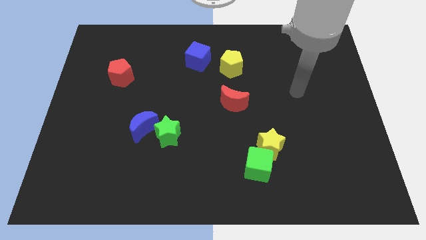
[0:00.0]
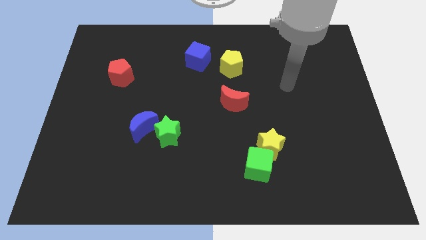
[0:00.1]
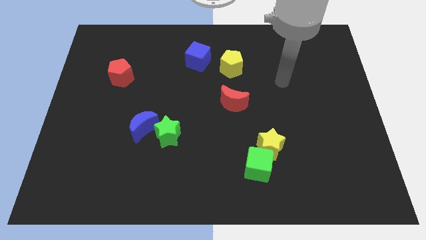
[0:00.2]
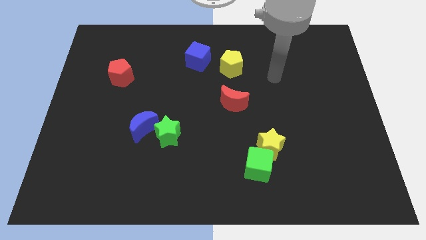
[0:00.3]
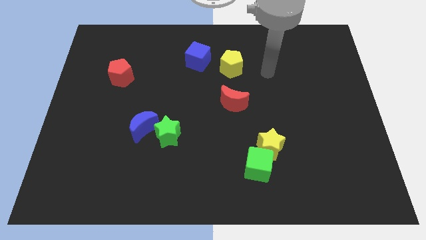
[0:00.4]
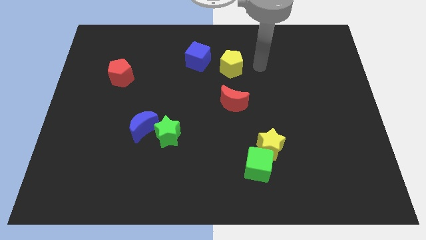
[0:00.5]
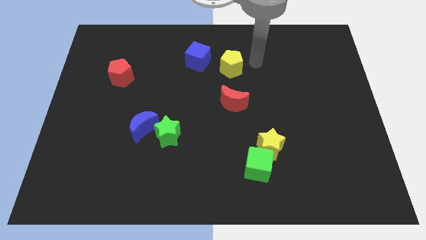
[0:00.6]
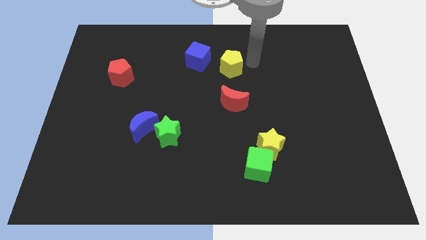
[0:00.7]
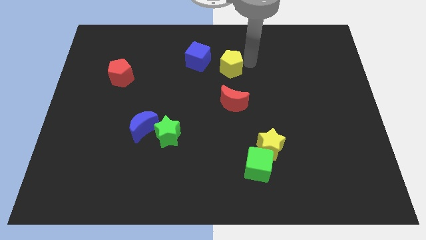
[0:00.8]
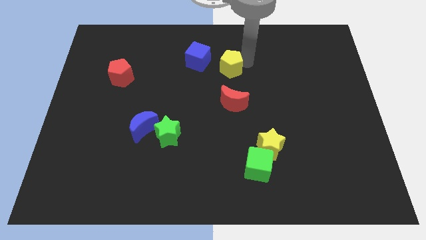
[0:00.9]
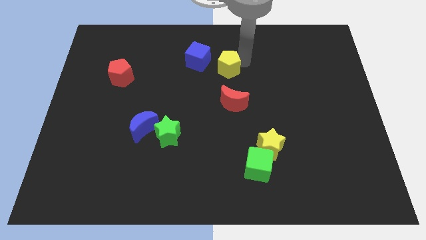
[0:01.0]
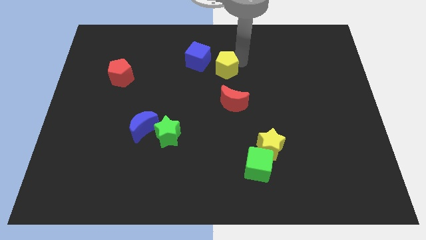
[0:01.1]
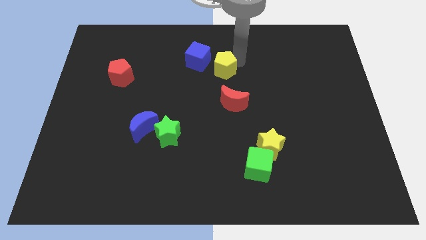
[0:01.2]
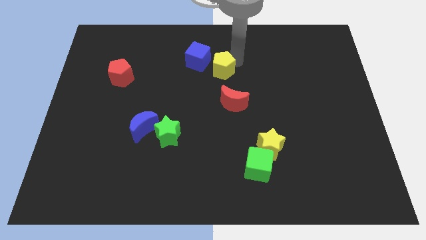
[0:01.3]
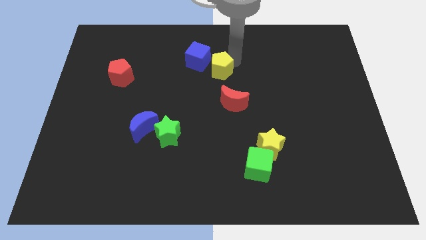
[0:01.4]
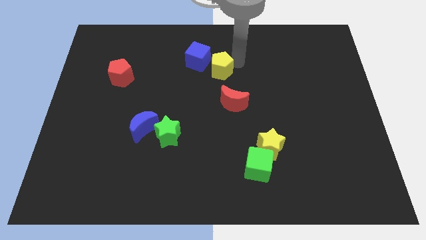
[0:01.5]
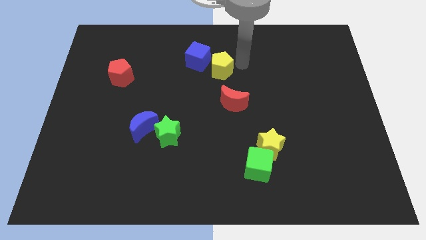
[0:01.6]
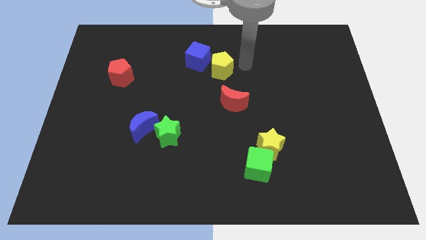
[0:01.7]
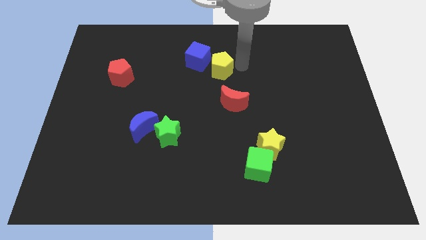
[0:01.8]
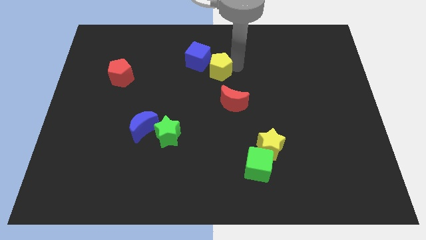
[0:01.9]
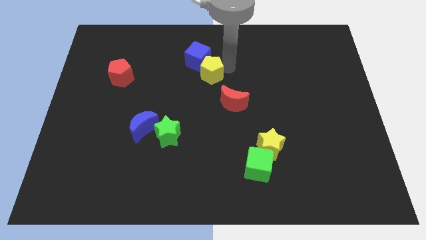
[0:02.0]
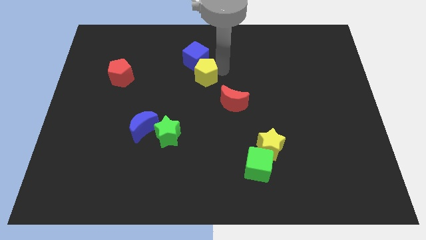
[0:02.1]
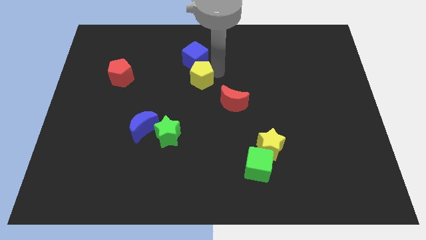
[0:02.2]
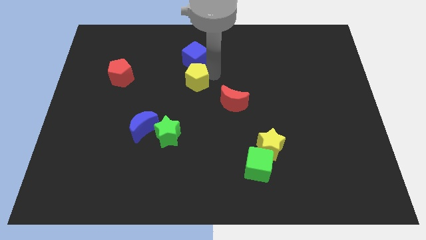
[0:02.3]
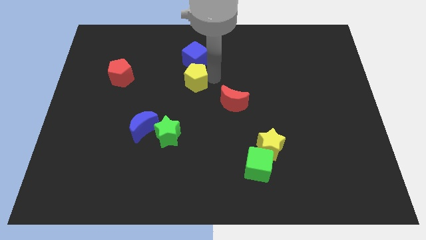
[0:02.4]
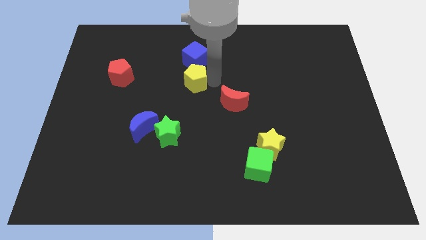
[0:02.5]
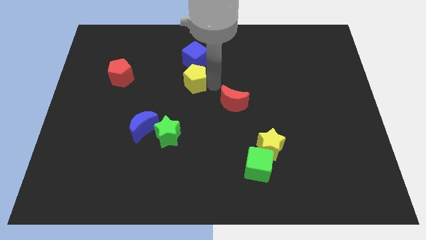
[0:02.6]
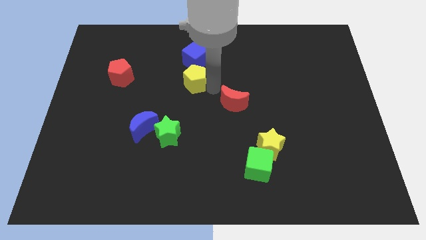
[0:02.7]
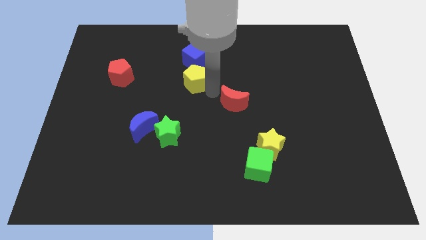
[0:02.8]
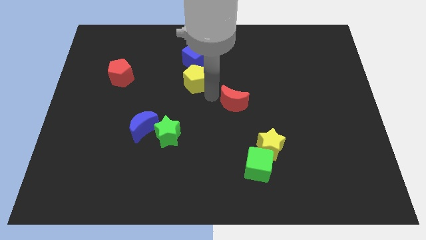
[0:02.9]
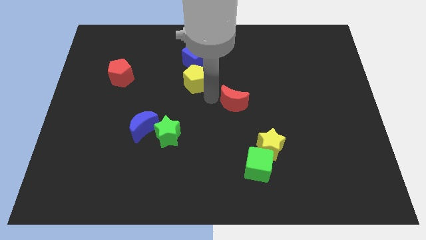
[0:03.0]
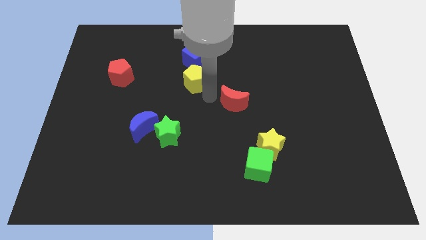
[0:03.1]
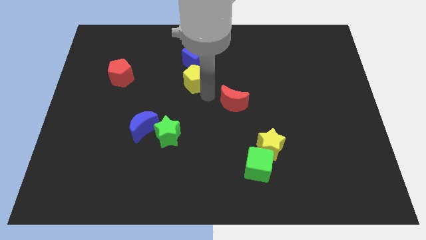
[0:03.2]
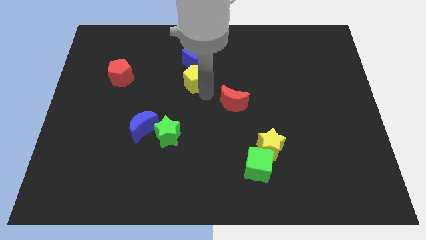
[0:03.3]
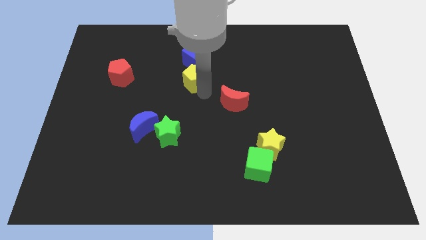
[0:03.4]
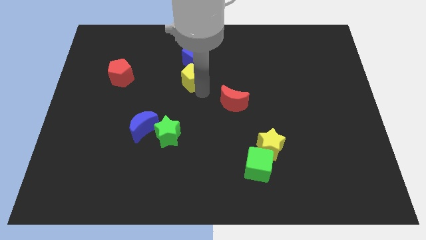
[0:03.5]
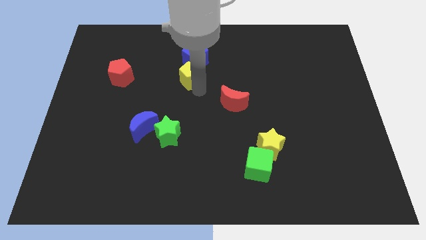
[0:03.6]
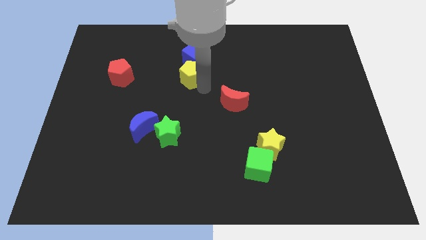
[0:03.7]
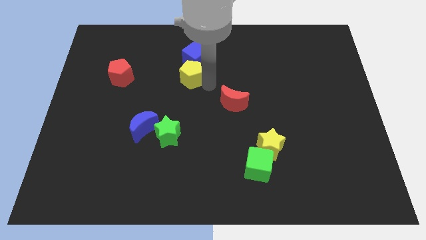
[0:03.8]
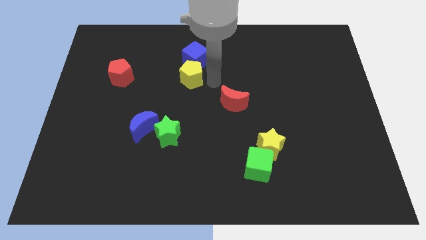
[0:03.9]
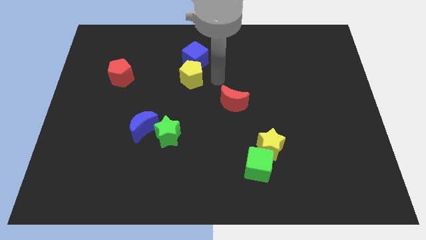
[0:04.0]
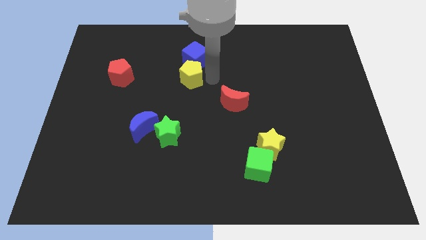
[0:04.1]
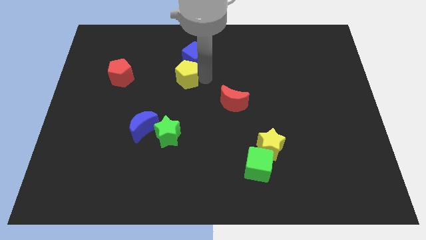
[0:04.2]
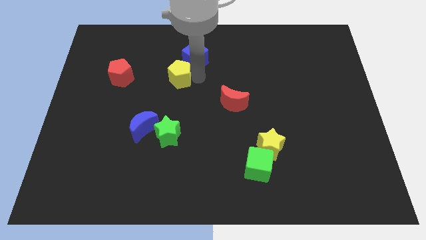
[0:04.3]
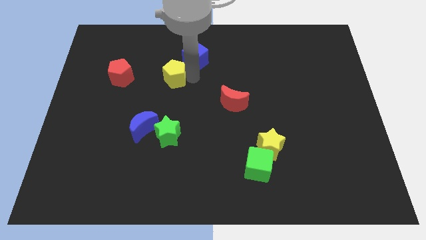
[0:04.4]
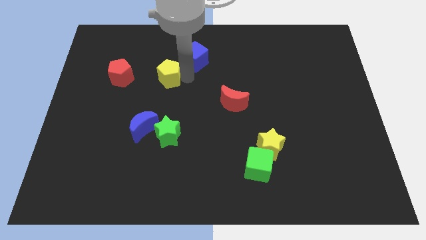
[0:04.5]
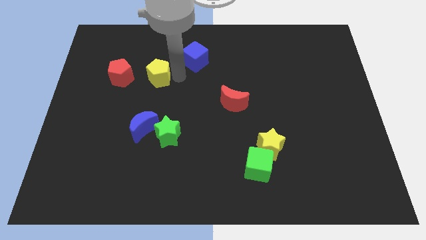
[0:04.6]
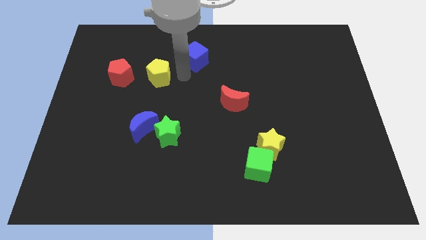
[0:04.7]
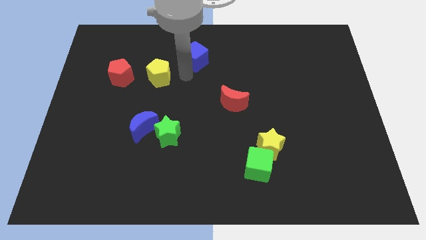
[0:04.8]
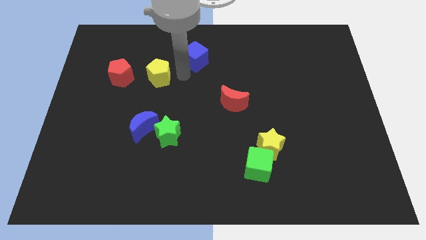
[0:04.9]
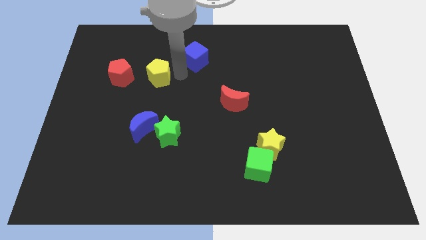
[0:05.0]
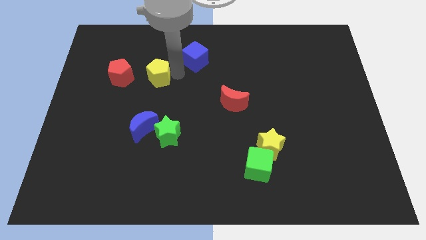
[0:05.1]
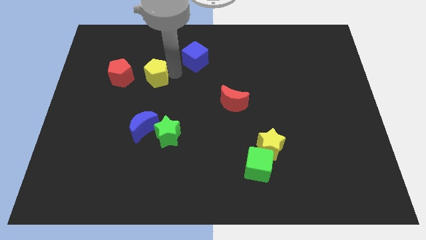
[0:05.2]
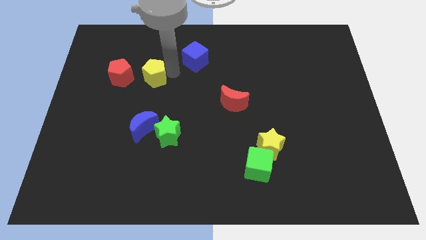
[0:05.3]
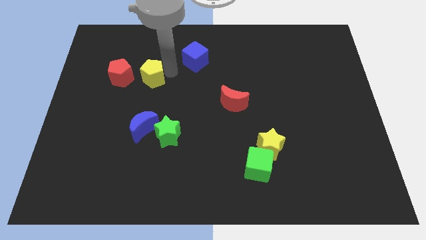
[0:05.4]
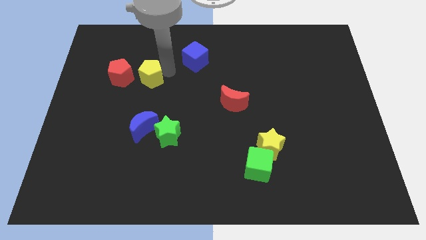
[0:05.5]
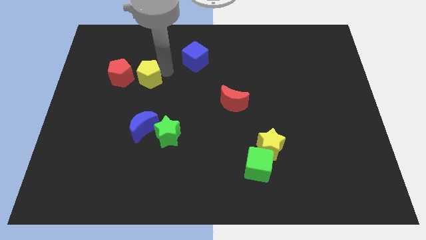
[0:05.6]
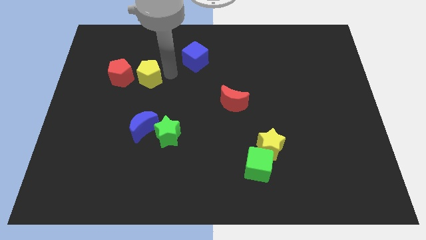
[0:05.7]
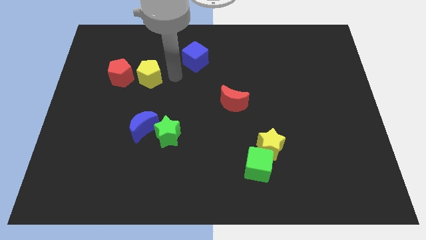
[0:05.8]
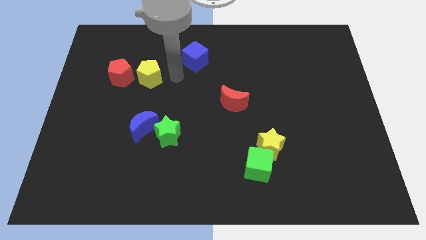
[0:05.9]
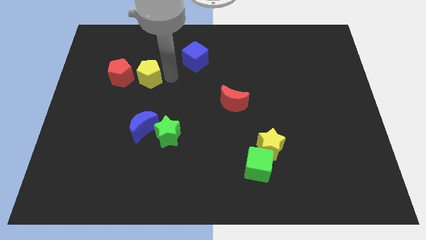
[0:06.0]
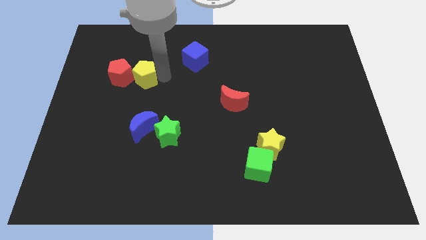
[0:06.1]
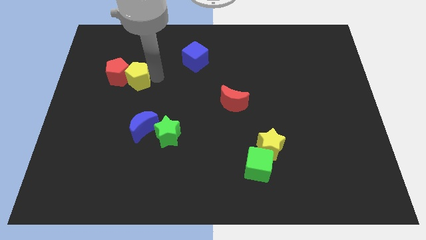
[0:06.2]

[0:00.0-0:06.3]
move the yellow pentagon to the red pentagon

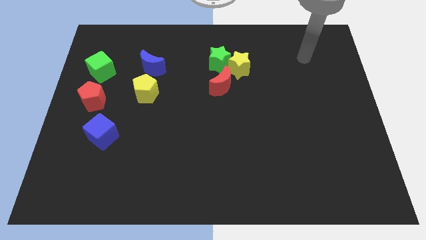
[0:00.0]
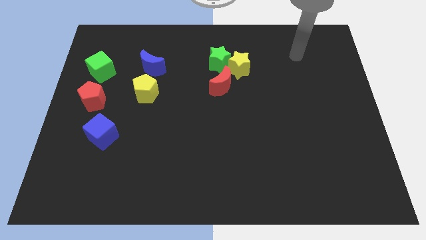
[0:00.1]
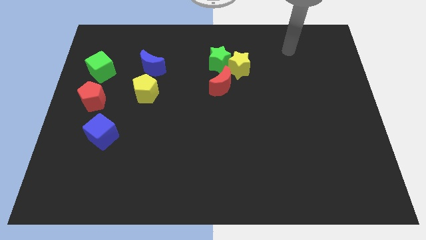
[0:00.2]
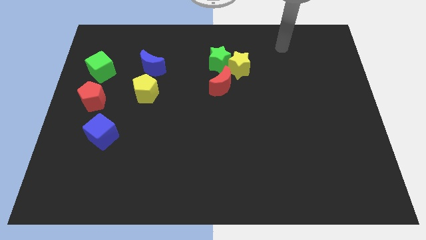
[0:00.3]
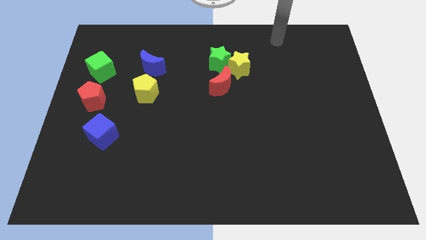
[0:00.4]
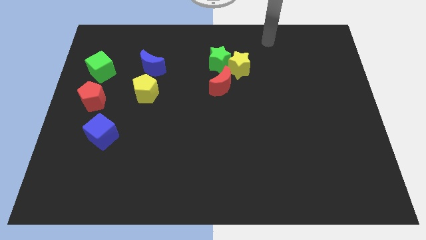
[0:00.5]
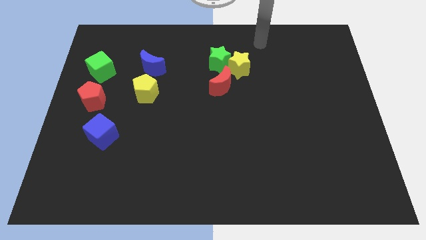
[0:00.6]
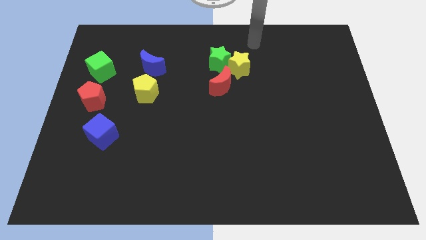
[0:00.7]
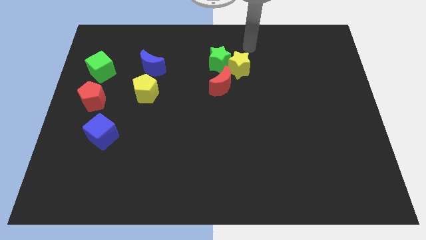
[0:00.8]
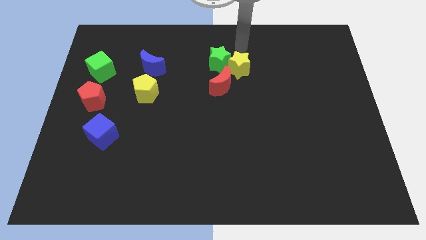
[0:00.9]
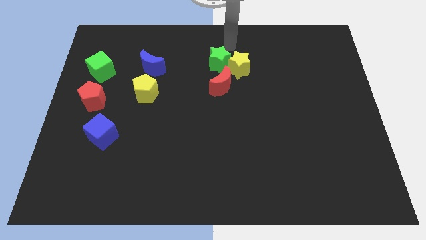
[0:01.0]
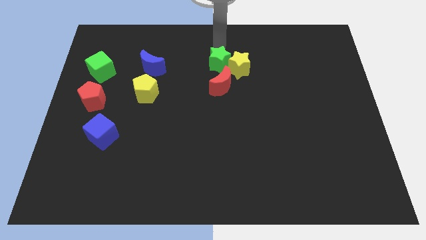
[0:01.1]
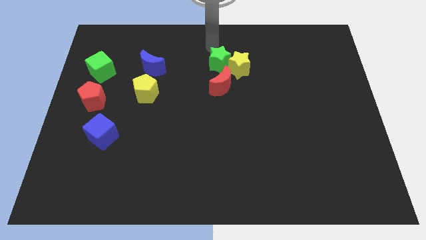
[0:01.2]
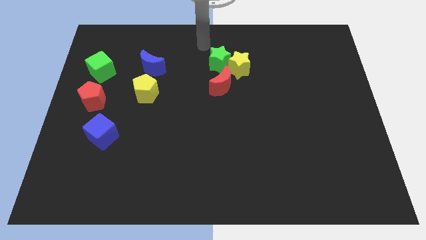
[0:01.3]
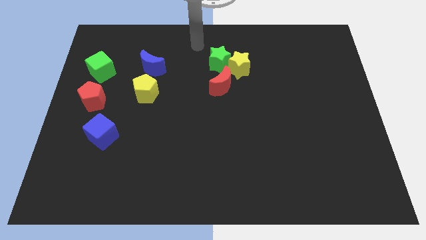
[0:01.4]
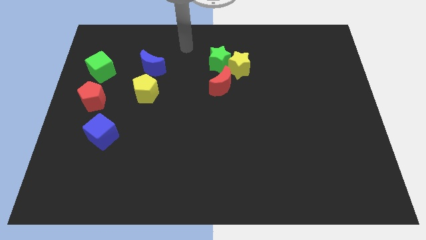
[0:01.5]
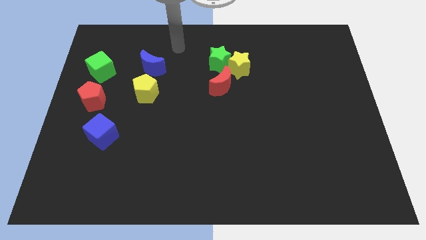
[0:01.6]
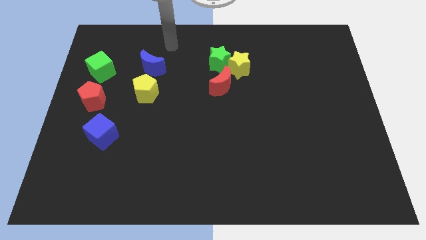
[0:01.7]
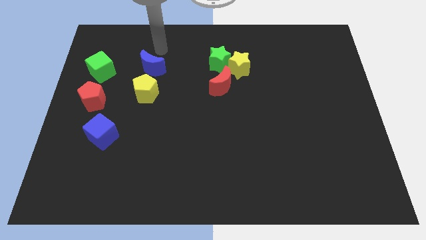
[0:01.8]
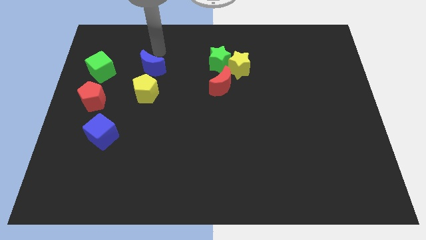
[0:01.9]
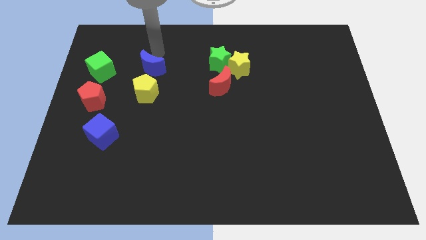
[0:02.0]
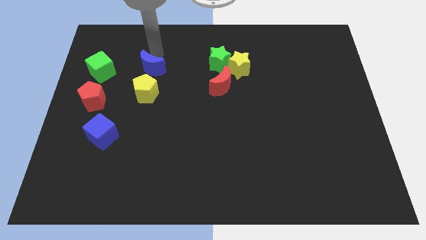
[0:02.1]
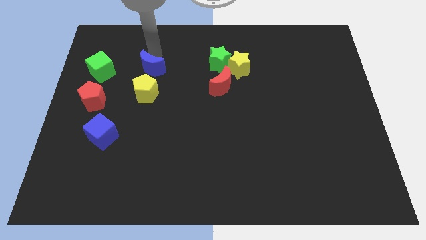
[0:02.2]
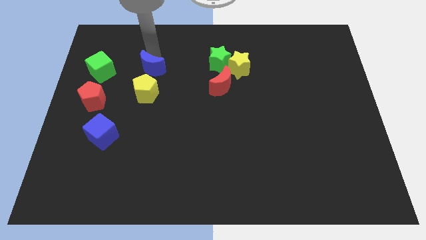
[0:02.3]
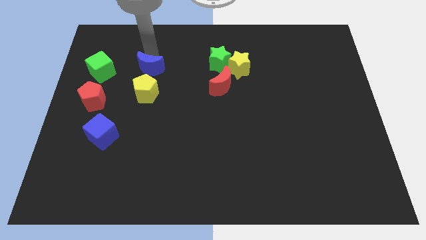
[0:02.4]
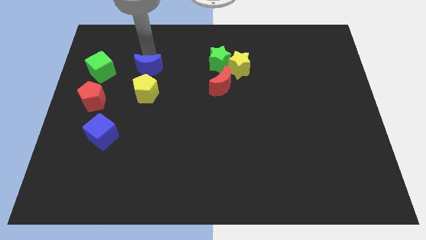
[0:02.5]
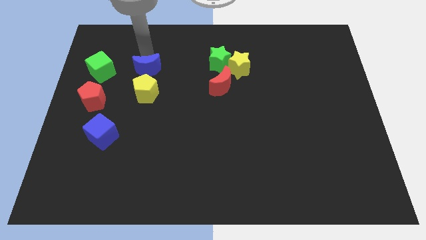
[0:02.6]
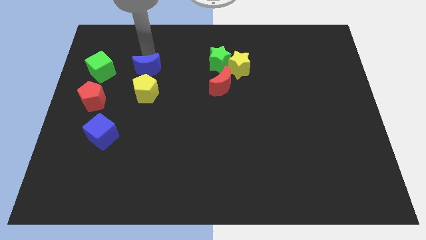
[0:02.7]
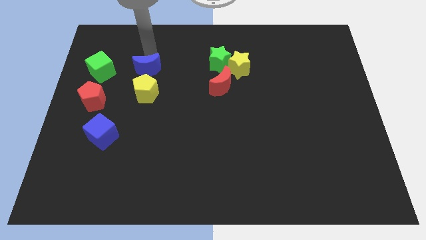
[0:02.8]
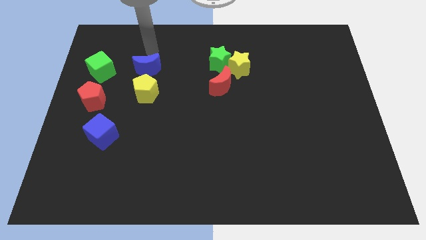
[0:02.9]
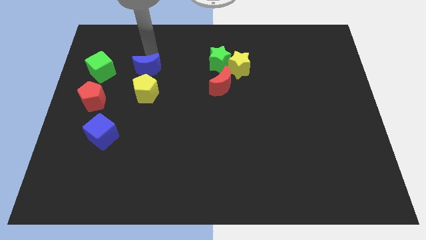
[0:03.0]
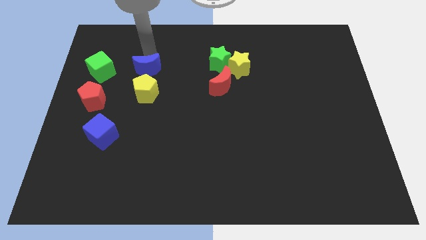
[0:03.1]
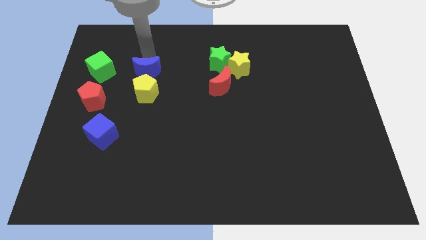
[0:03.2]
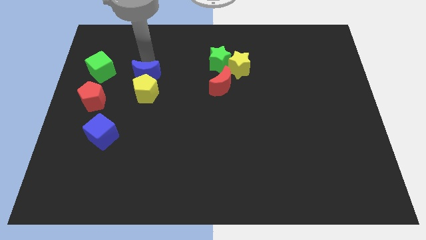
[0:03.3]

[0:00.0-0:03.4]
move the blue moon next to the yellow pentagon
